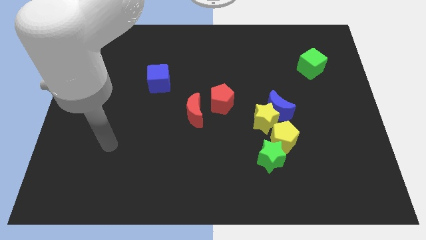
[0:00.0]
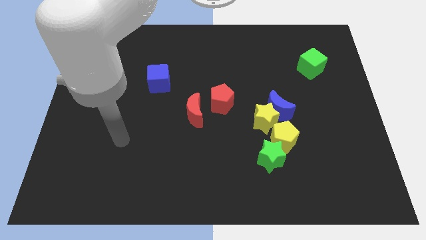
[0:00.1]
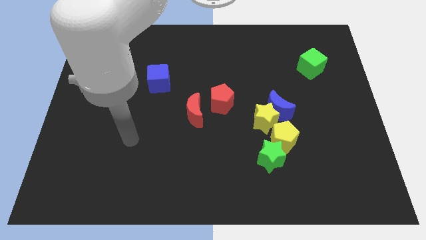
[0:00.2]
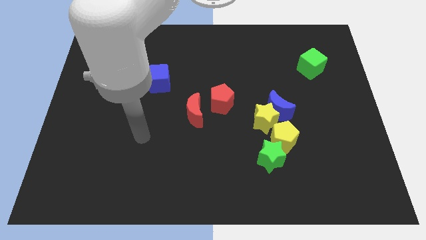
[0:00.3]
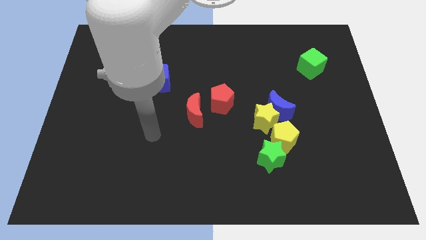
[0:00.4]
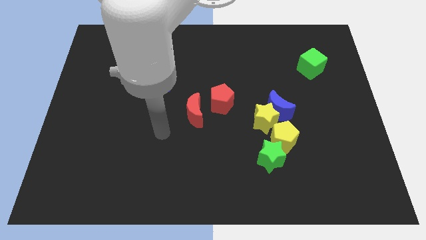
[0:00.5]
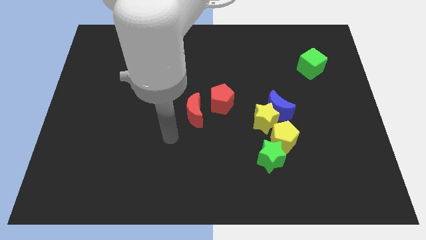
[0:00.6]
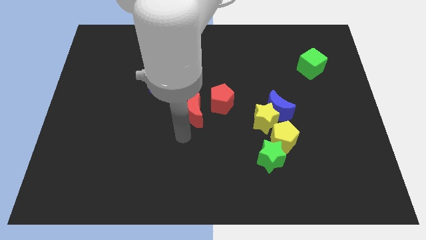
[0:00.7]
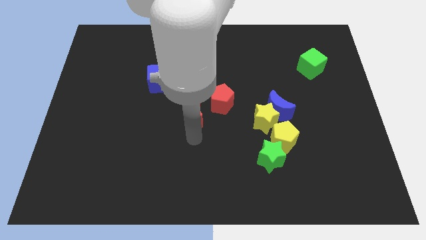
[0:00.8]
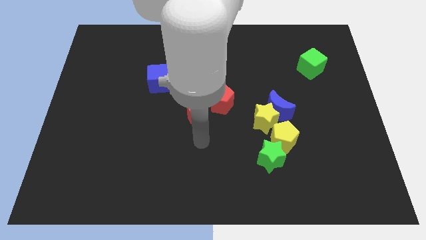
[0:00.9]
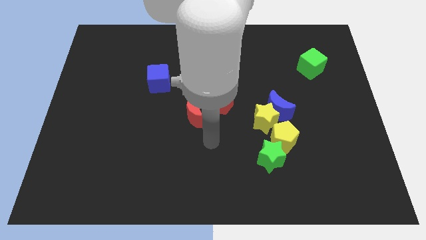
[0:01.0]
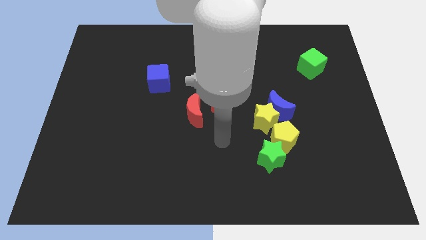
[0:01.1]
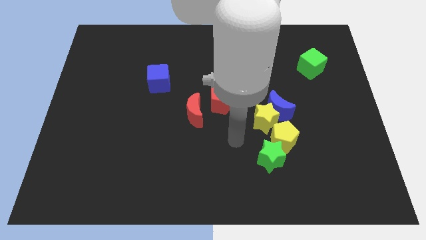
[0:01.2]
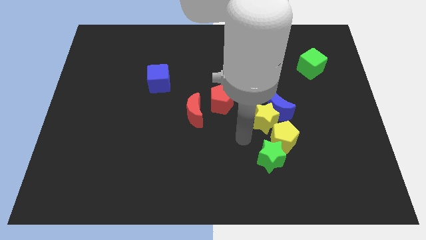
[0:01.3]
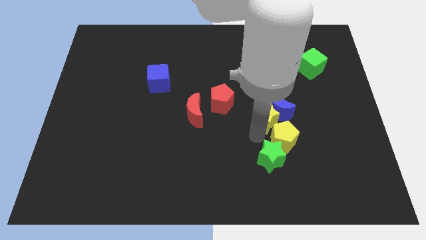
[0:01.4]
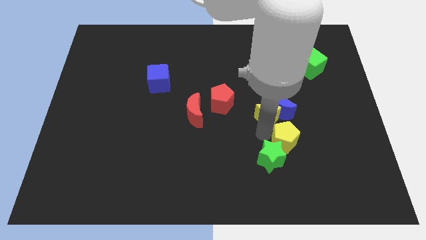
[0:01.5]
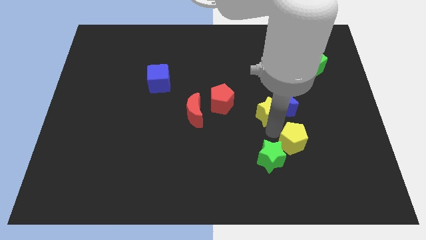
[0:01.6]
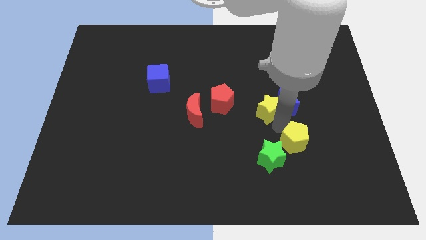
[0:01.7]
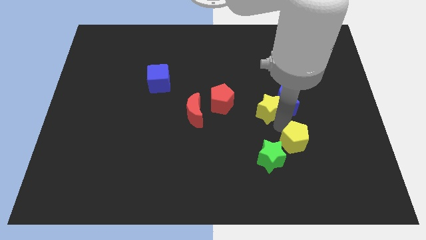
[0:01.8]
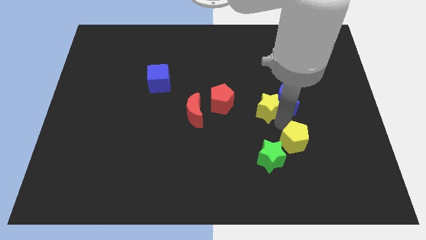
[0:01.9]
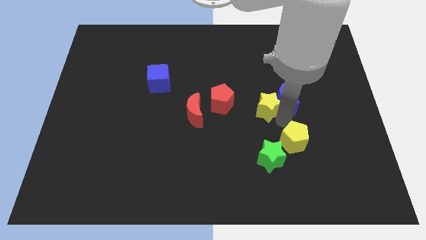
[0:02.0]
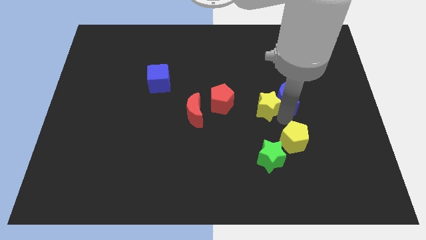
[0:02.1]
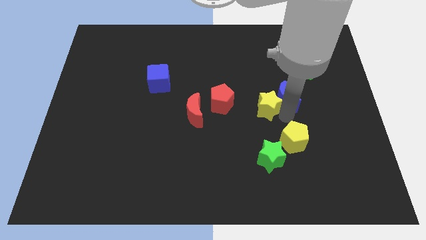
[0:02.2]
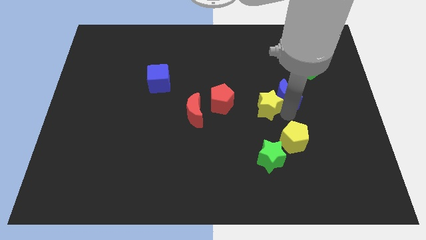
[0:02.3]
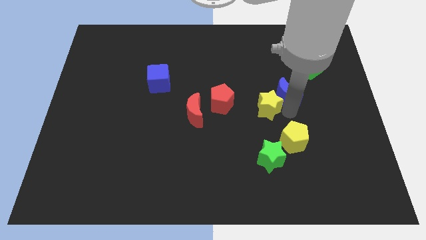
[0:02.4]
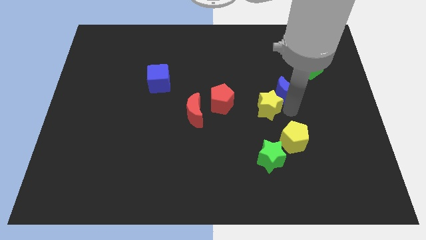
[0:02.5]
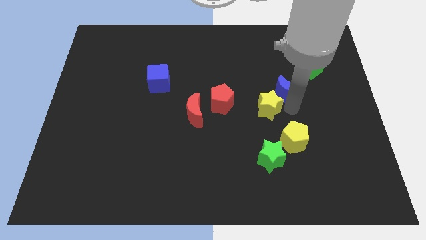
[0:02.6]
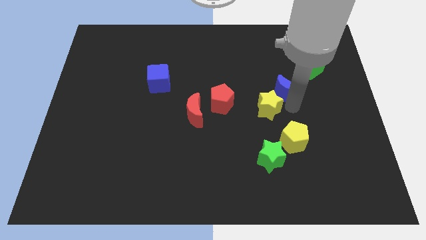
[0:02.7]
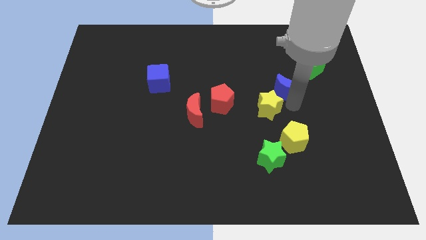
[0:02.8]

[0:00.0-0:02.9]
separate the blue moon from the yellow star and yellow pentagon

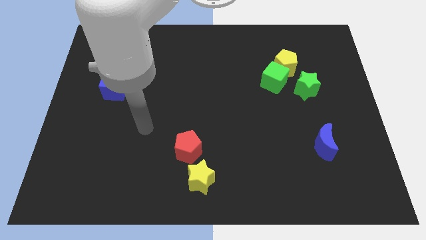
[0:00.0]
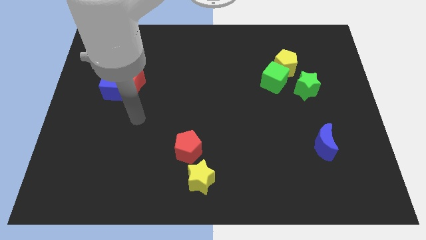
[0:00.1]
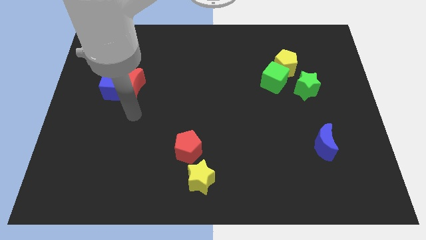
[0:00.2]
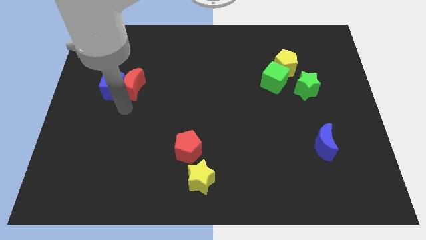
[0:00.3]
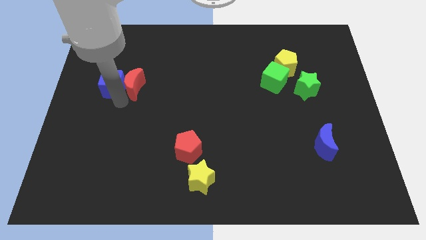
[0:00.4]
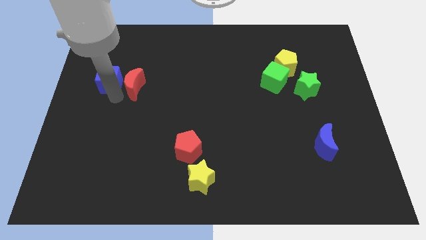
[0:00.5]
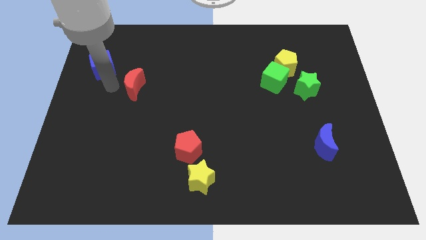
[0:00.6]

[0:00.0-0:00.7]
pull the red moon apart from the blue cube

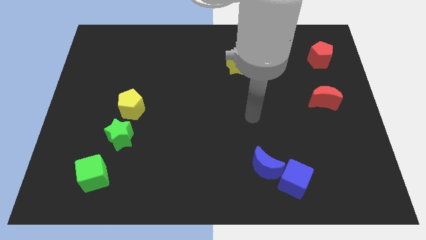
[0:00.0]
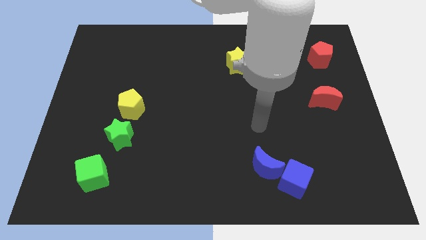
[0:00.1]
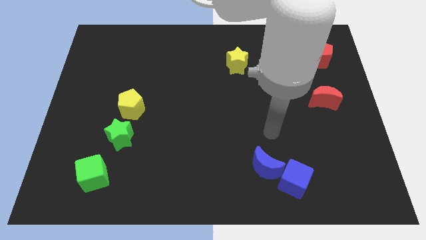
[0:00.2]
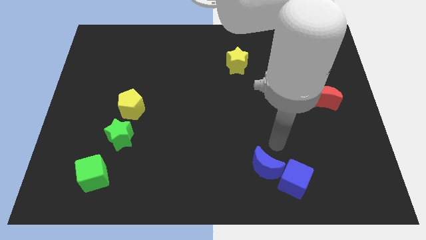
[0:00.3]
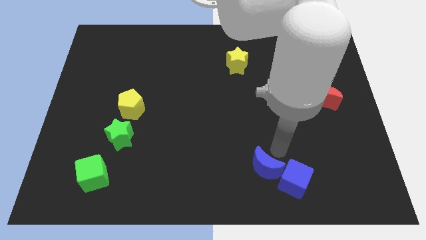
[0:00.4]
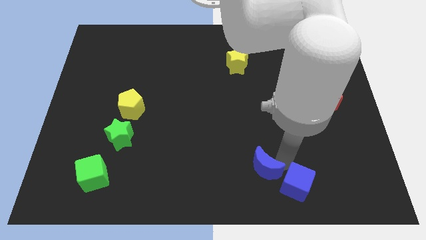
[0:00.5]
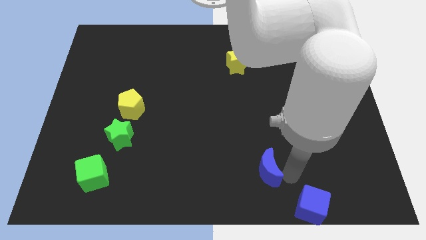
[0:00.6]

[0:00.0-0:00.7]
move the blue moon away from the blue cube

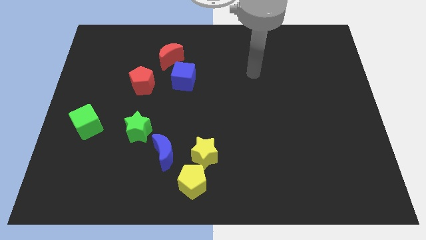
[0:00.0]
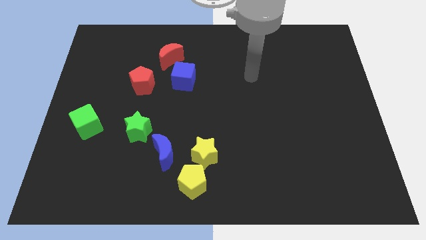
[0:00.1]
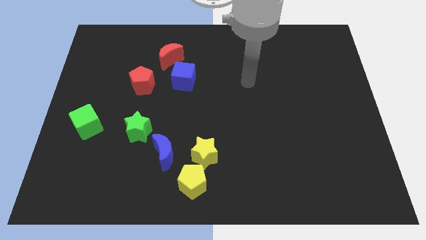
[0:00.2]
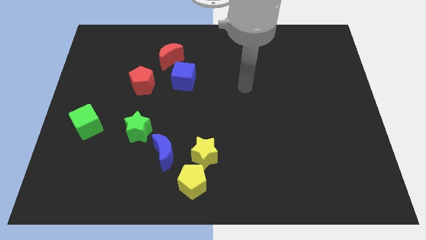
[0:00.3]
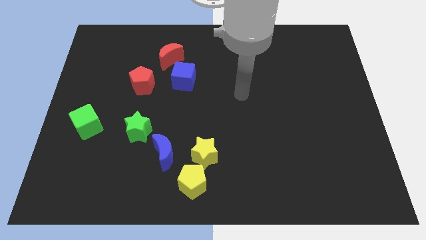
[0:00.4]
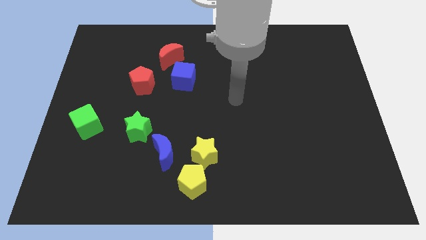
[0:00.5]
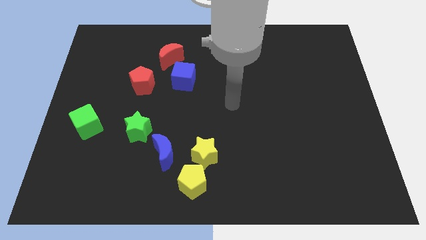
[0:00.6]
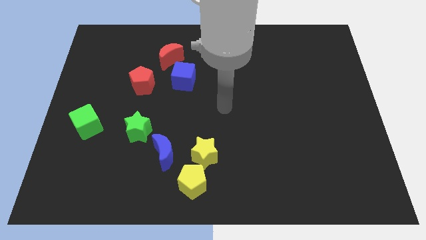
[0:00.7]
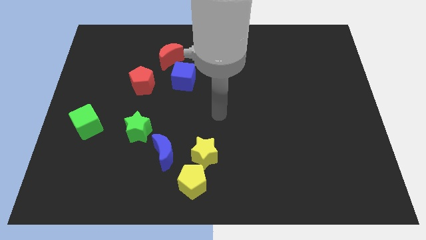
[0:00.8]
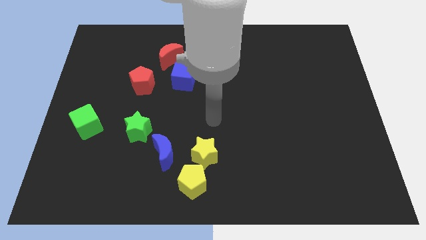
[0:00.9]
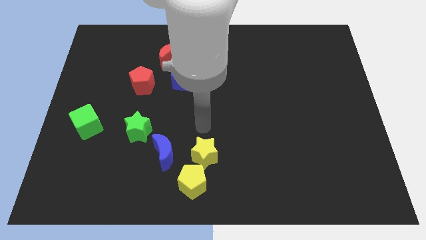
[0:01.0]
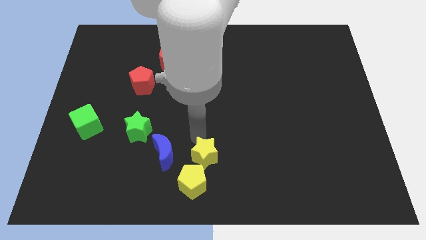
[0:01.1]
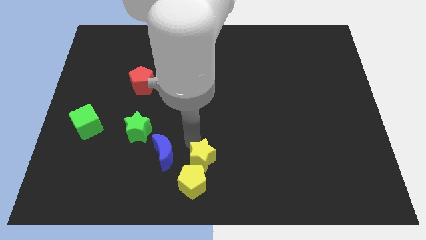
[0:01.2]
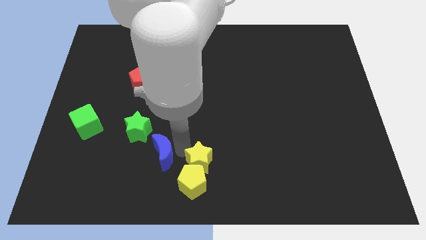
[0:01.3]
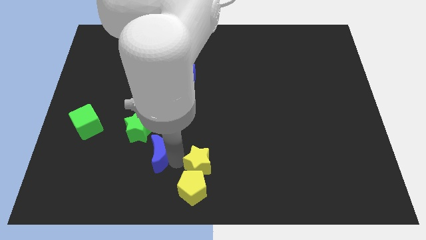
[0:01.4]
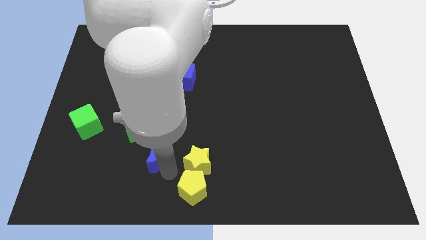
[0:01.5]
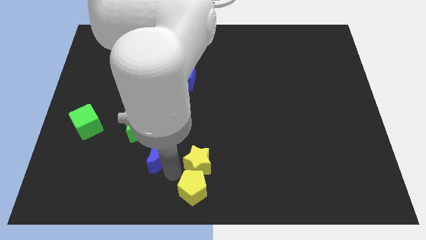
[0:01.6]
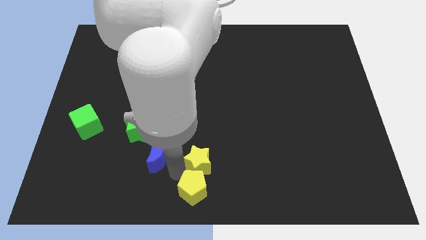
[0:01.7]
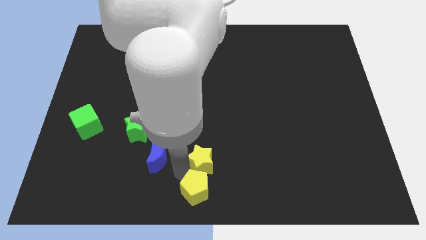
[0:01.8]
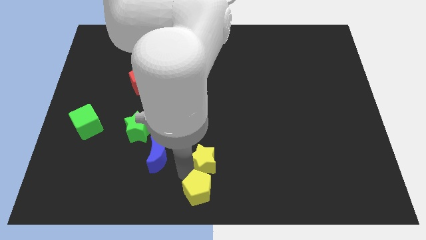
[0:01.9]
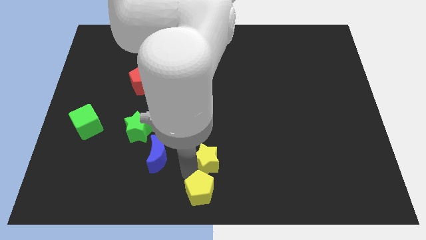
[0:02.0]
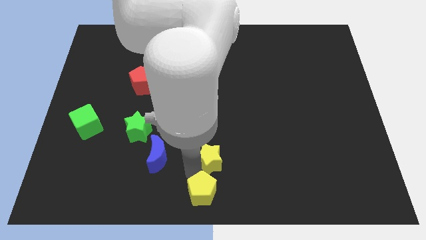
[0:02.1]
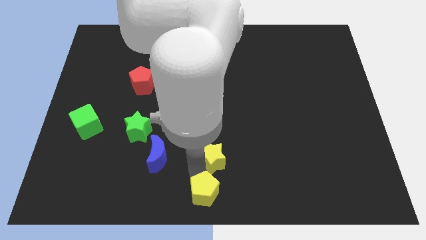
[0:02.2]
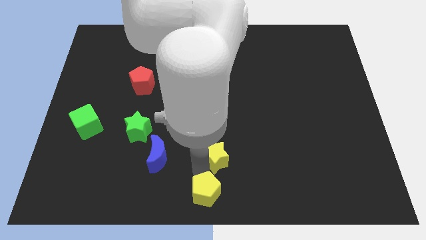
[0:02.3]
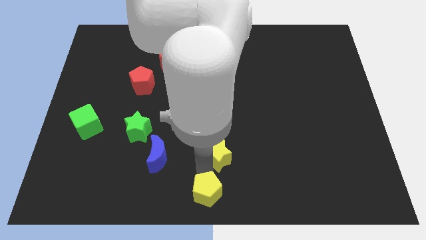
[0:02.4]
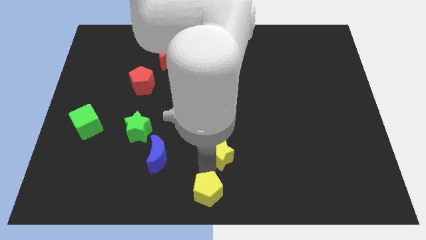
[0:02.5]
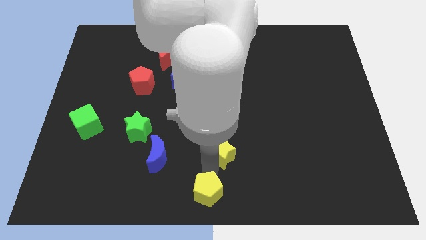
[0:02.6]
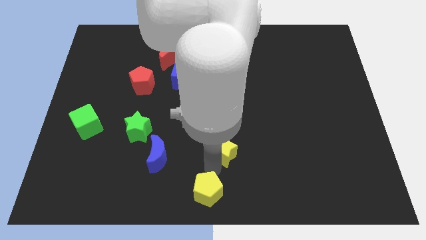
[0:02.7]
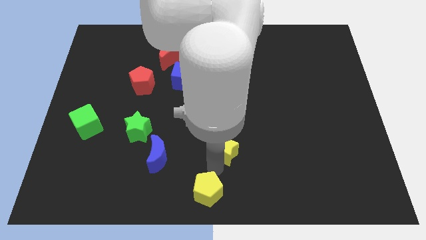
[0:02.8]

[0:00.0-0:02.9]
separate the yellow star from the yellow pentagon and blue moon

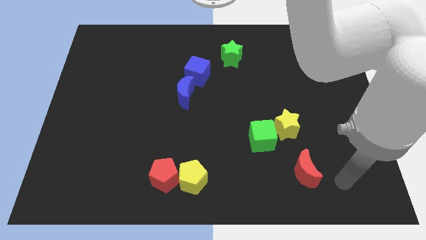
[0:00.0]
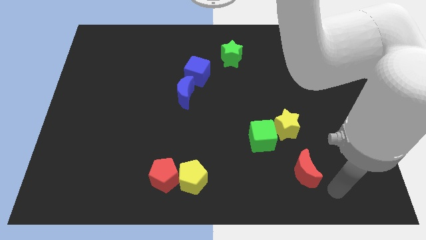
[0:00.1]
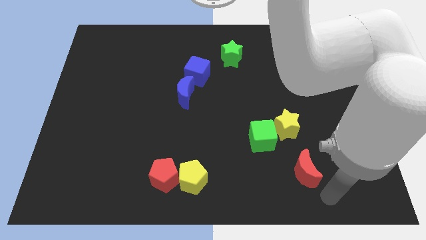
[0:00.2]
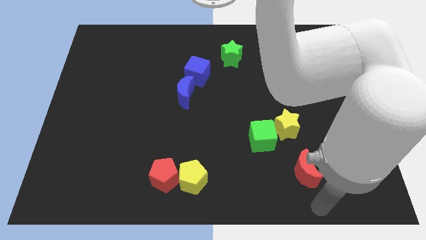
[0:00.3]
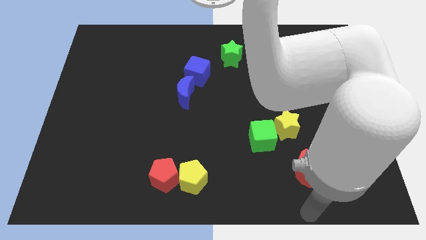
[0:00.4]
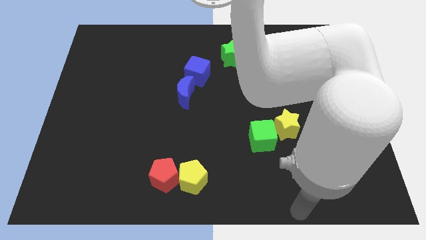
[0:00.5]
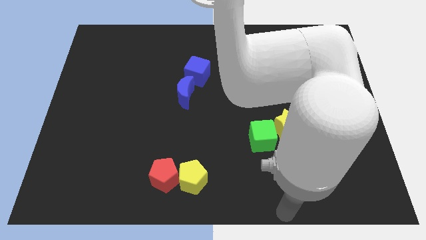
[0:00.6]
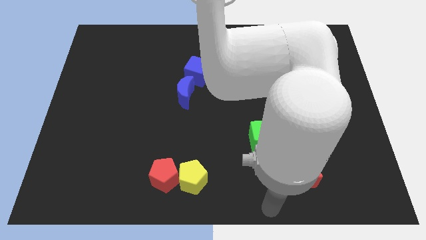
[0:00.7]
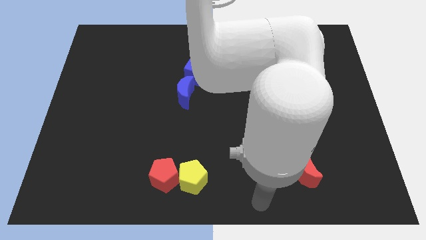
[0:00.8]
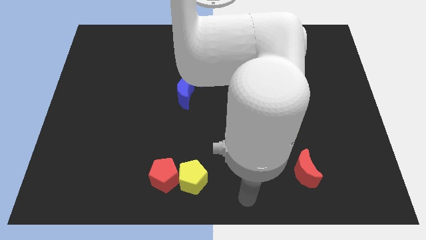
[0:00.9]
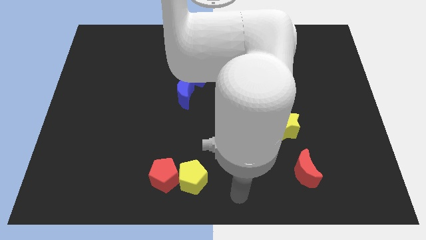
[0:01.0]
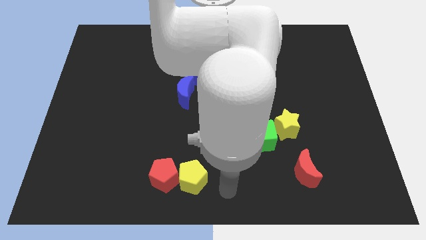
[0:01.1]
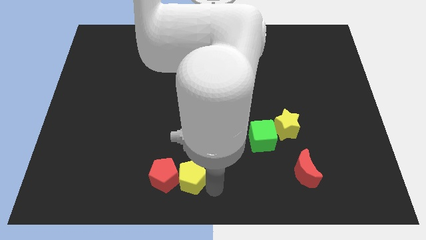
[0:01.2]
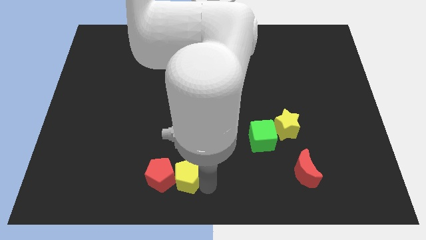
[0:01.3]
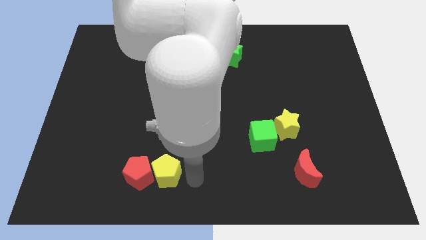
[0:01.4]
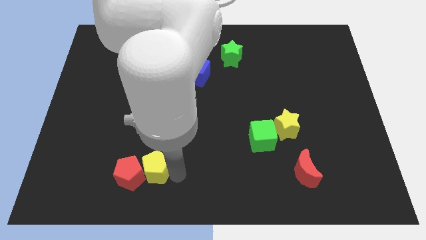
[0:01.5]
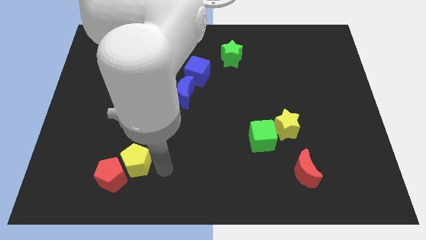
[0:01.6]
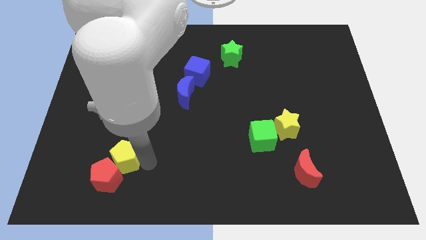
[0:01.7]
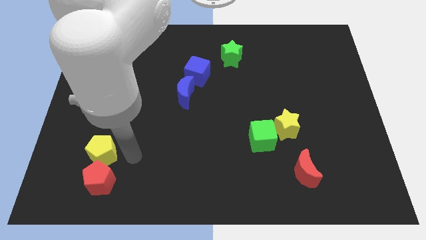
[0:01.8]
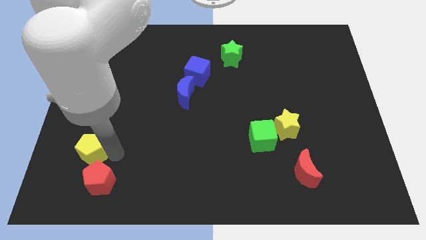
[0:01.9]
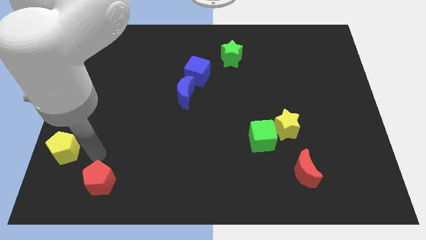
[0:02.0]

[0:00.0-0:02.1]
pull the red pentagon apart from the yellow pentagon
